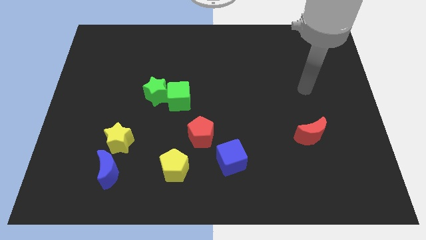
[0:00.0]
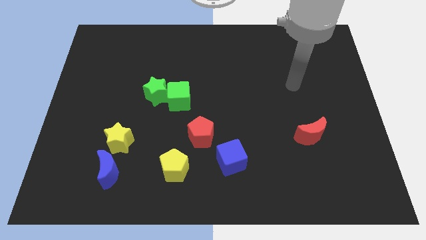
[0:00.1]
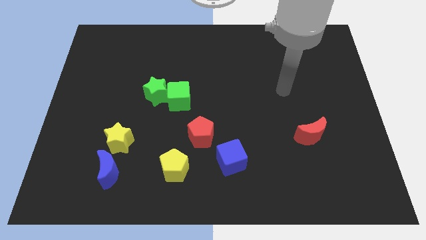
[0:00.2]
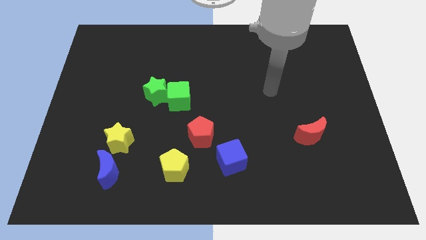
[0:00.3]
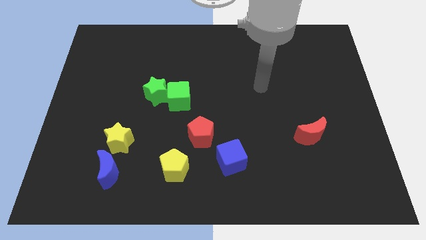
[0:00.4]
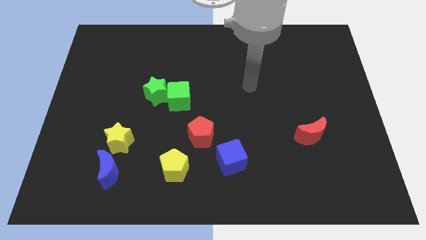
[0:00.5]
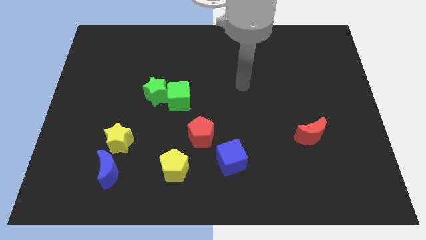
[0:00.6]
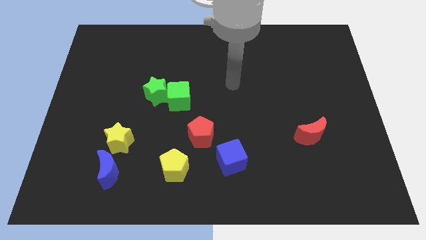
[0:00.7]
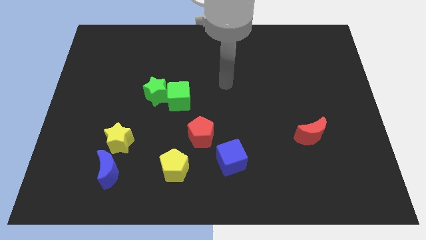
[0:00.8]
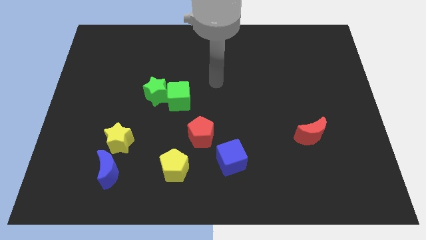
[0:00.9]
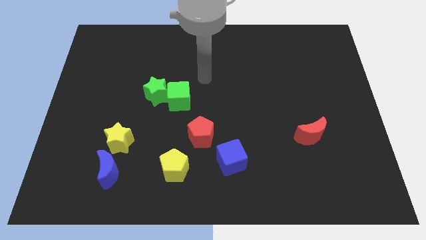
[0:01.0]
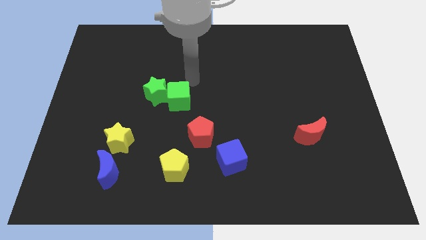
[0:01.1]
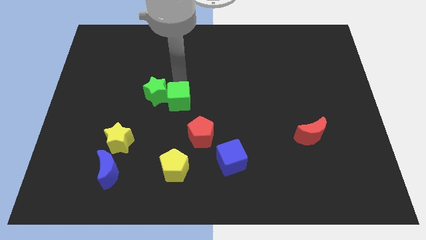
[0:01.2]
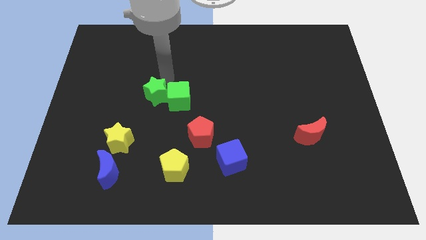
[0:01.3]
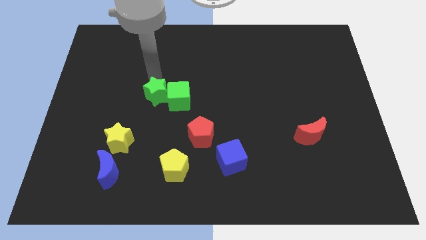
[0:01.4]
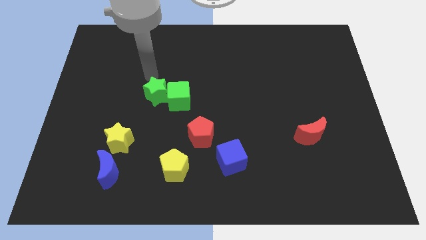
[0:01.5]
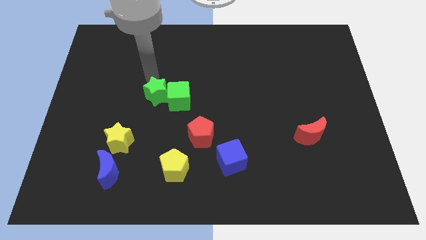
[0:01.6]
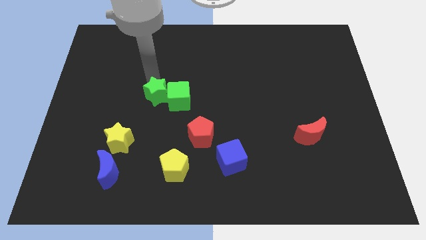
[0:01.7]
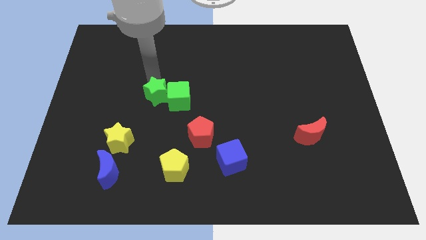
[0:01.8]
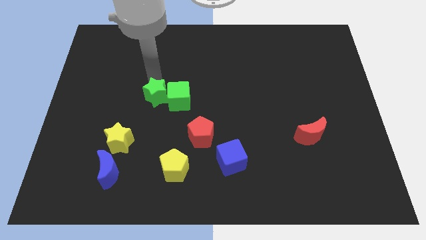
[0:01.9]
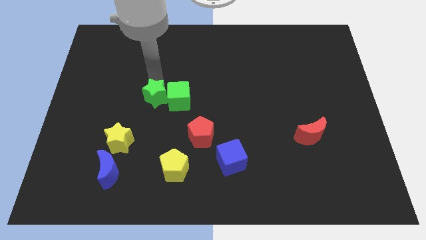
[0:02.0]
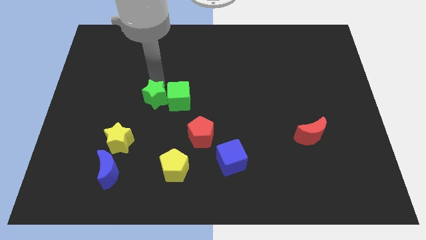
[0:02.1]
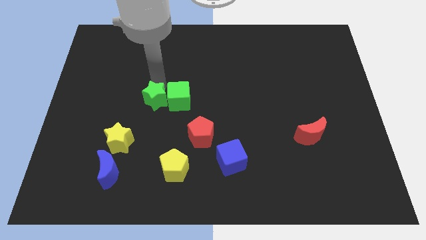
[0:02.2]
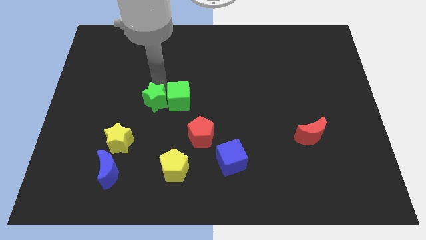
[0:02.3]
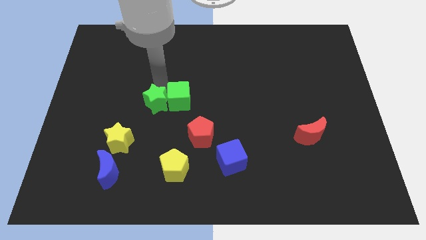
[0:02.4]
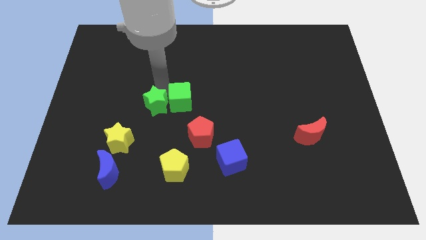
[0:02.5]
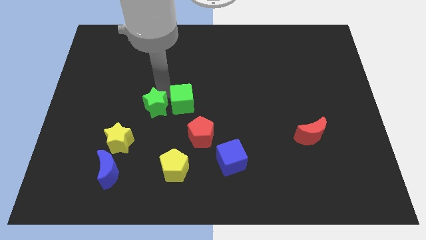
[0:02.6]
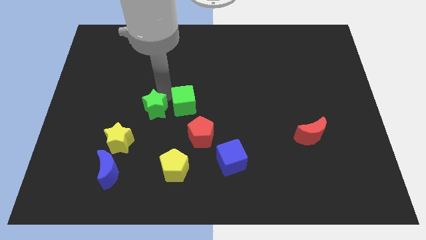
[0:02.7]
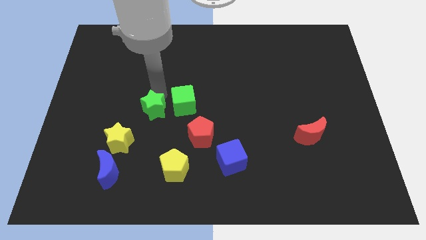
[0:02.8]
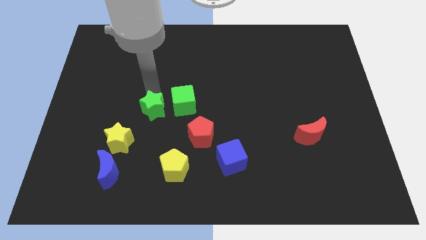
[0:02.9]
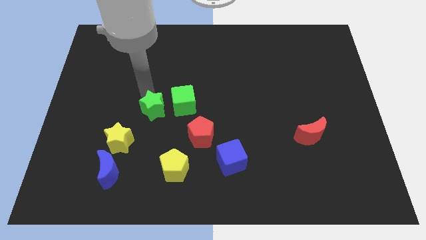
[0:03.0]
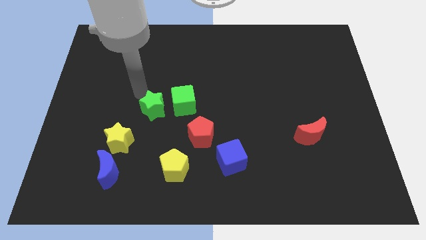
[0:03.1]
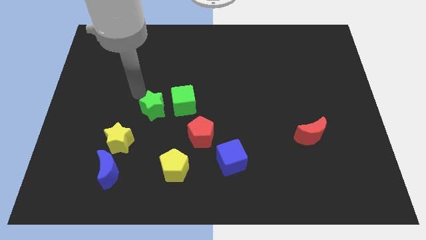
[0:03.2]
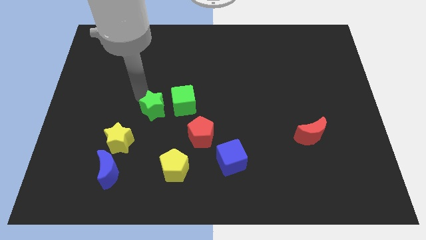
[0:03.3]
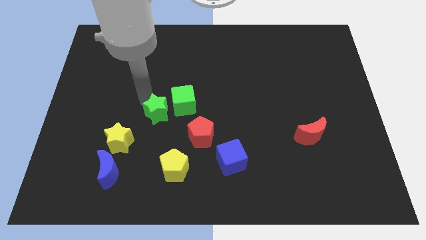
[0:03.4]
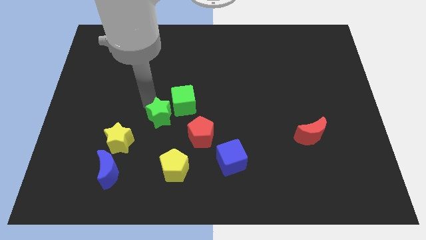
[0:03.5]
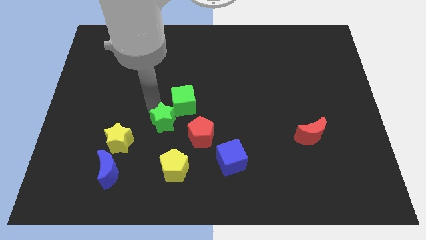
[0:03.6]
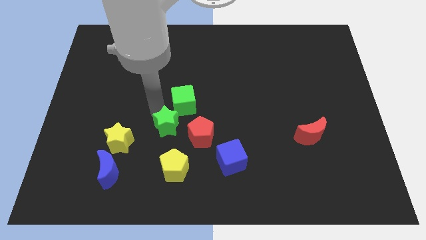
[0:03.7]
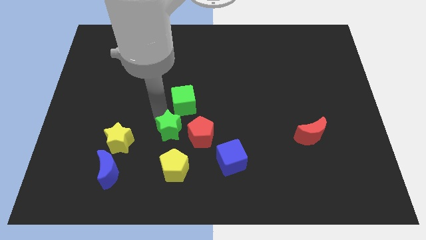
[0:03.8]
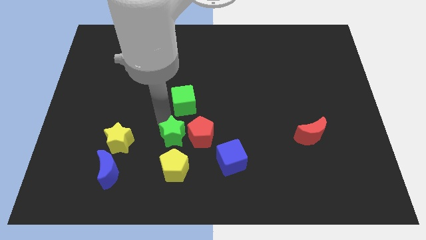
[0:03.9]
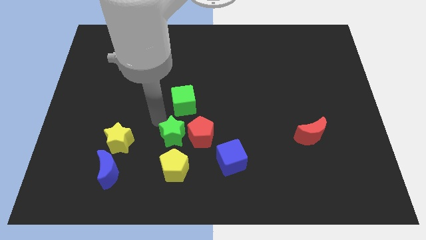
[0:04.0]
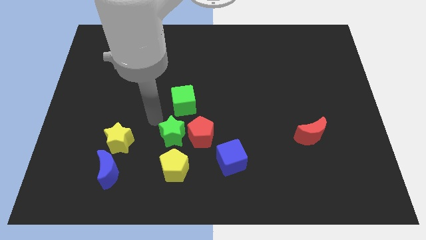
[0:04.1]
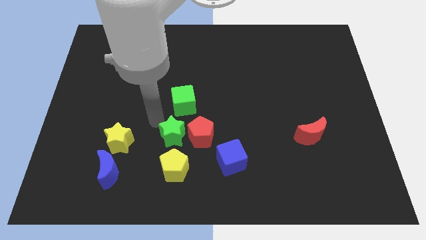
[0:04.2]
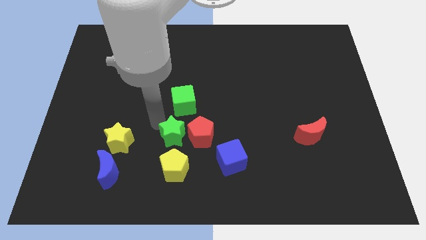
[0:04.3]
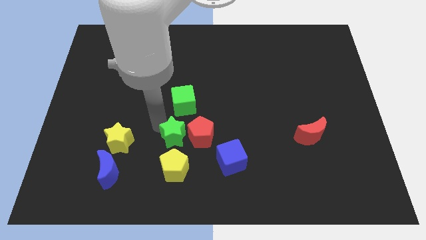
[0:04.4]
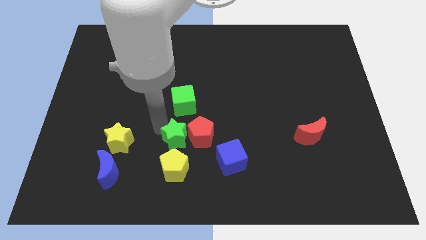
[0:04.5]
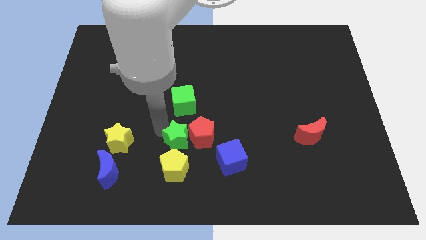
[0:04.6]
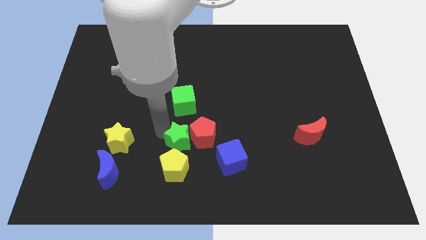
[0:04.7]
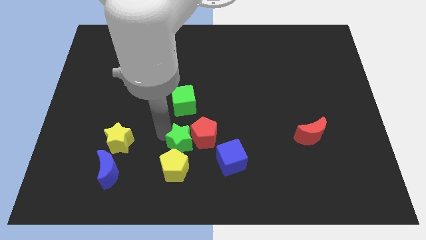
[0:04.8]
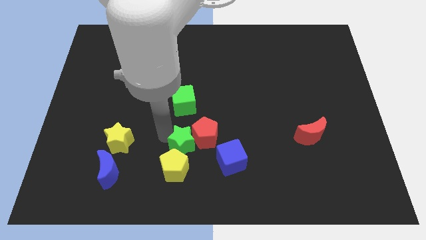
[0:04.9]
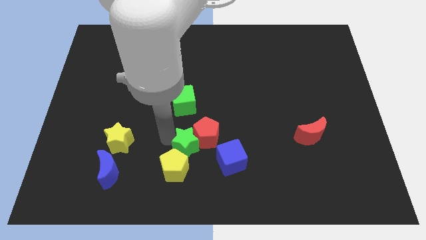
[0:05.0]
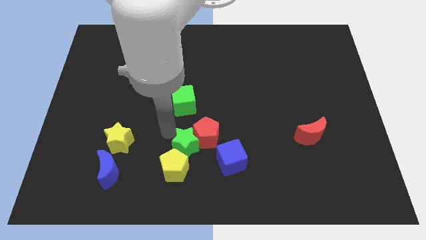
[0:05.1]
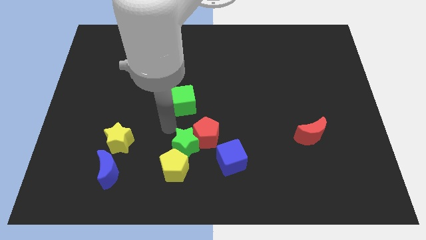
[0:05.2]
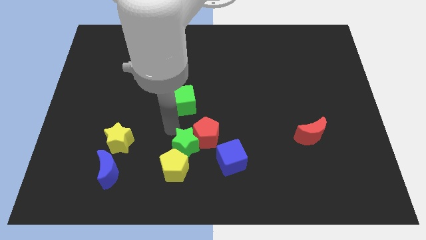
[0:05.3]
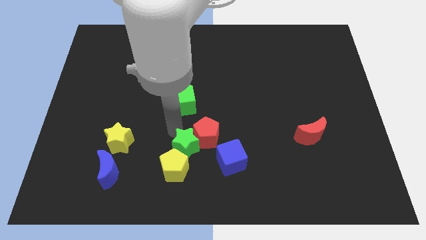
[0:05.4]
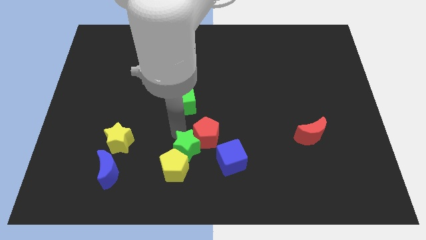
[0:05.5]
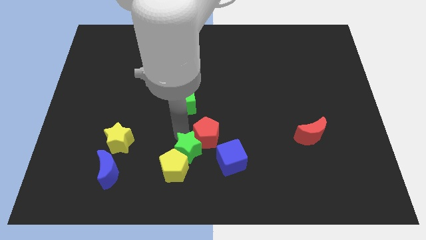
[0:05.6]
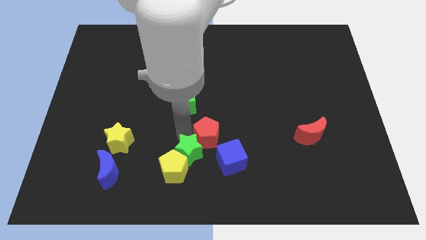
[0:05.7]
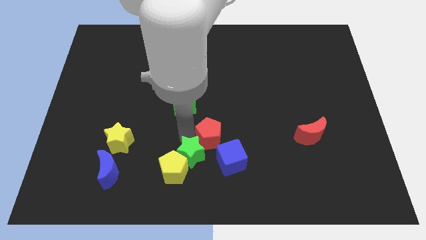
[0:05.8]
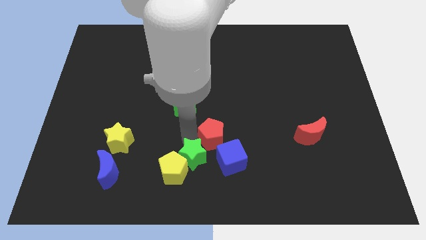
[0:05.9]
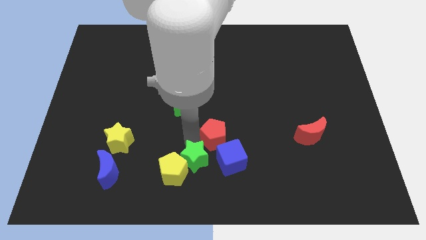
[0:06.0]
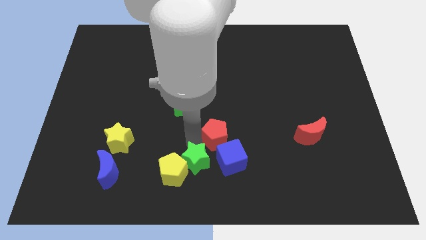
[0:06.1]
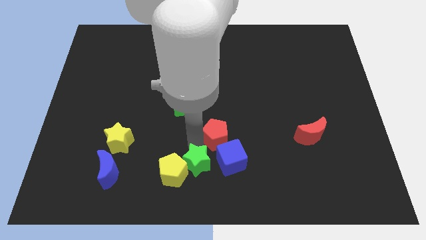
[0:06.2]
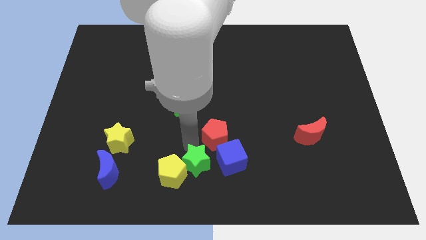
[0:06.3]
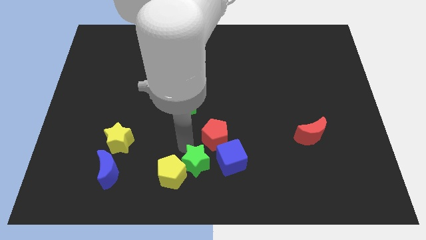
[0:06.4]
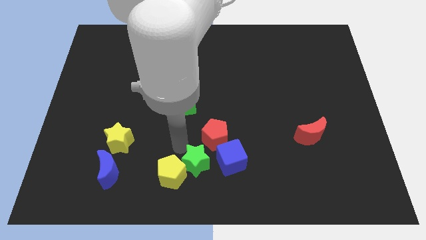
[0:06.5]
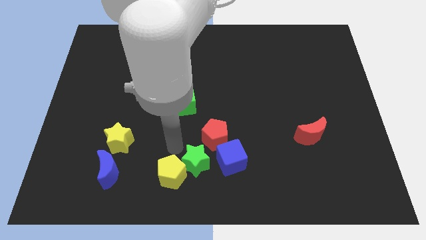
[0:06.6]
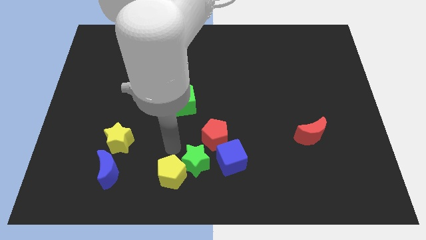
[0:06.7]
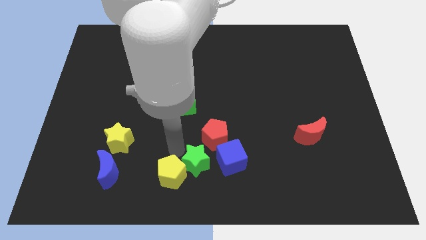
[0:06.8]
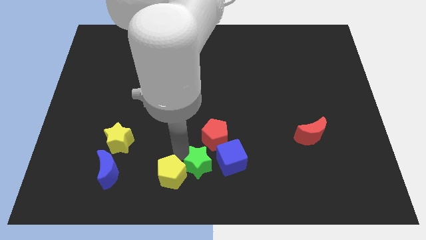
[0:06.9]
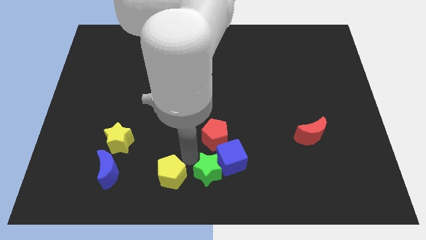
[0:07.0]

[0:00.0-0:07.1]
push the green star diagonally down and right

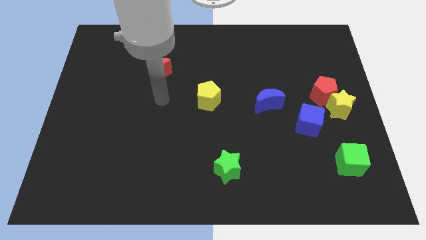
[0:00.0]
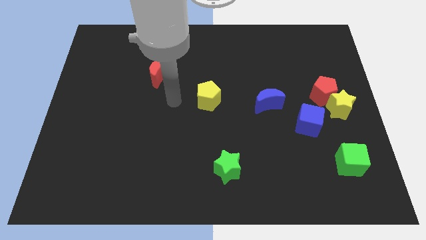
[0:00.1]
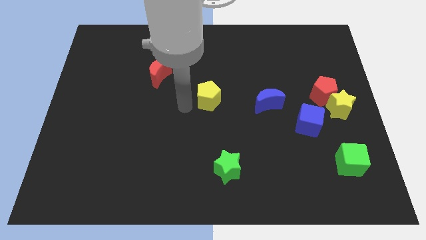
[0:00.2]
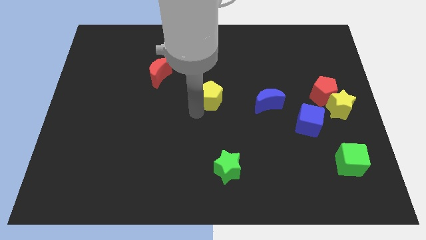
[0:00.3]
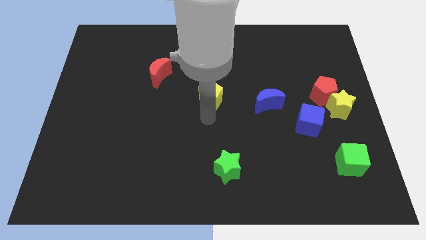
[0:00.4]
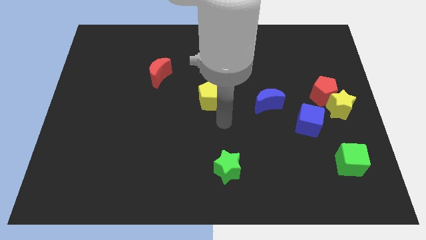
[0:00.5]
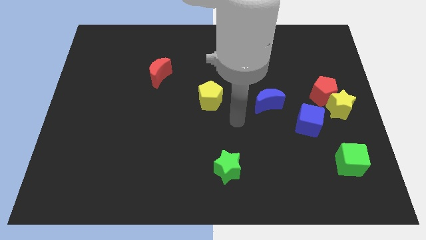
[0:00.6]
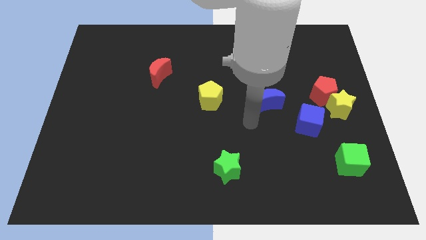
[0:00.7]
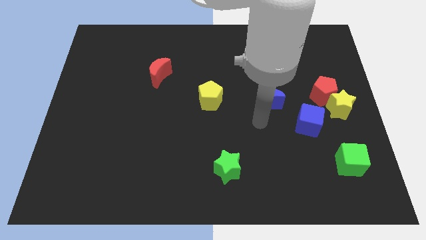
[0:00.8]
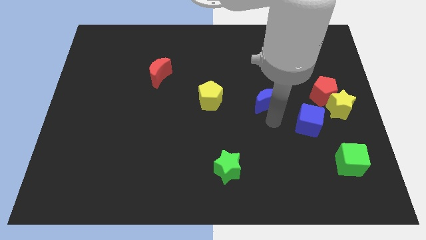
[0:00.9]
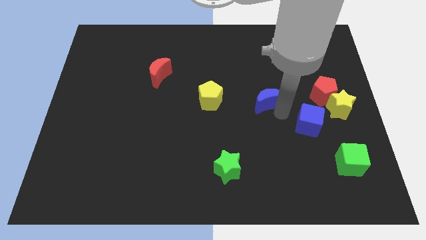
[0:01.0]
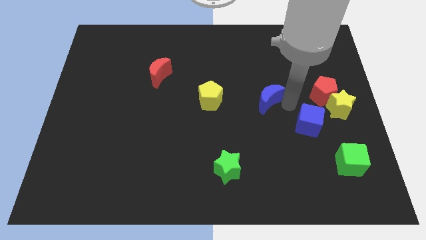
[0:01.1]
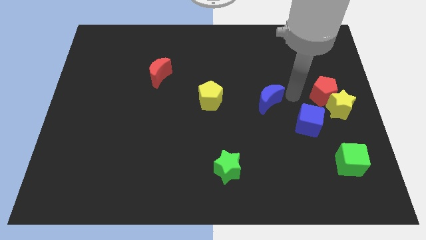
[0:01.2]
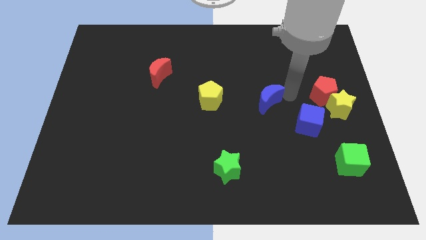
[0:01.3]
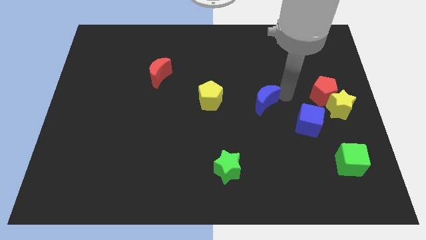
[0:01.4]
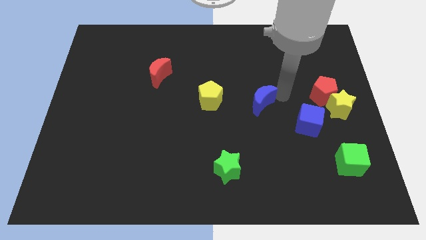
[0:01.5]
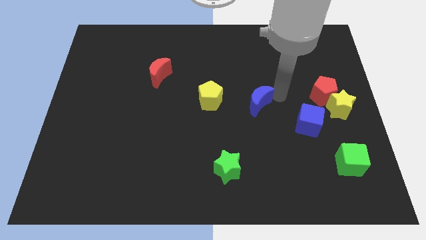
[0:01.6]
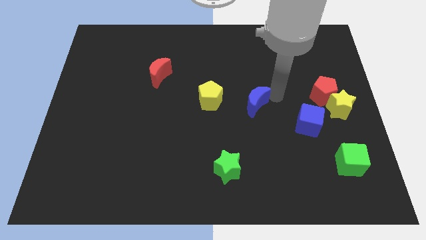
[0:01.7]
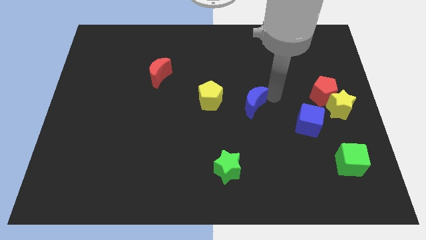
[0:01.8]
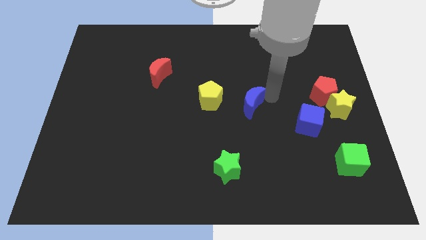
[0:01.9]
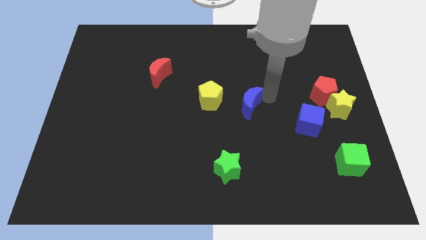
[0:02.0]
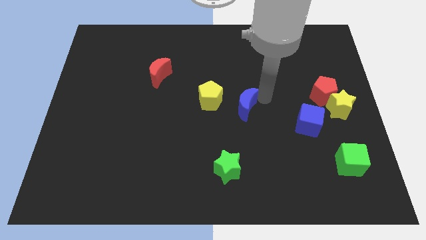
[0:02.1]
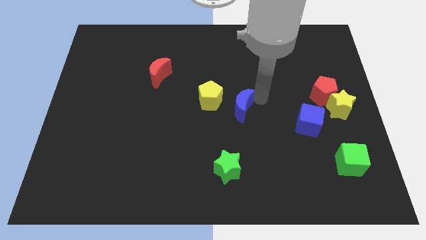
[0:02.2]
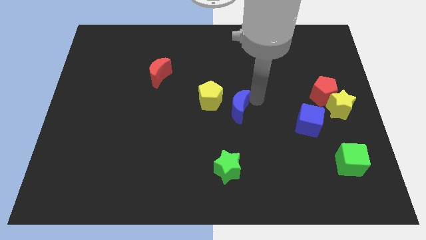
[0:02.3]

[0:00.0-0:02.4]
slide the blue moon somewhat left
